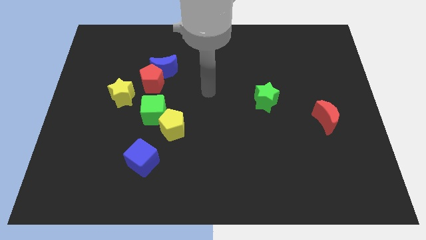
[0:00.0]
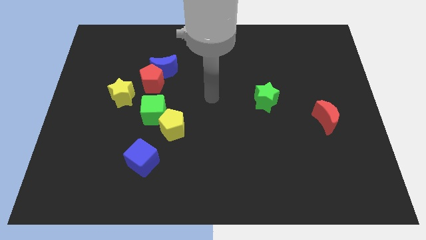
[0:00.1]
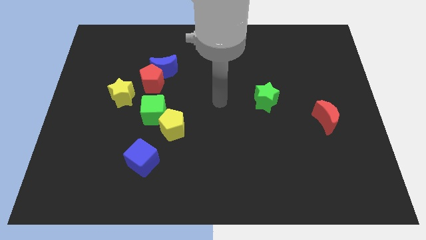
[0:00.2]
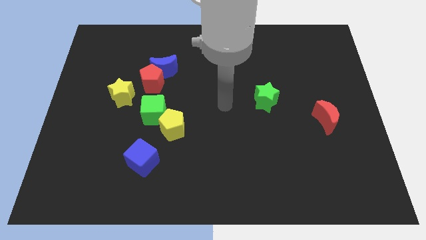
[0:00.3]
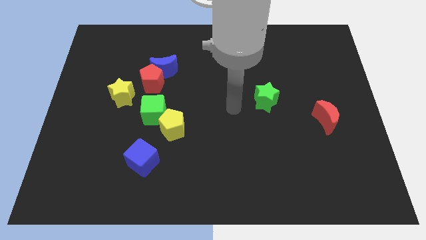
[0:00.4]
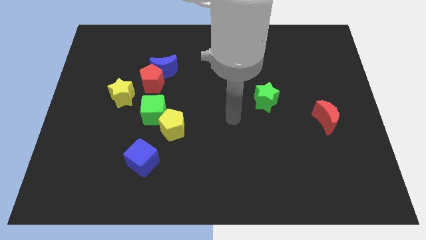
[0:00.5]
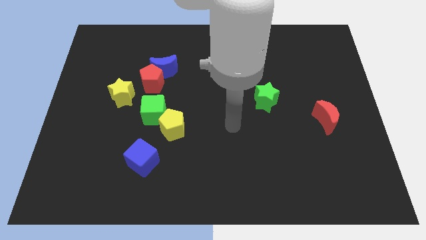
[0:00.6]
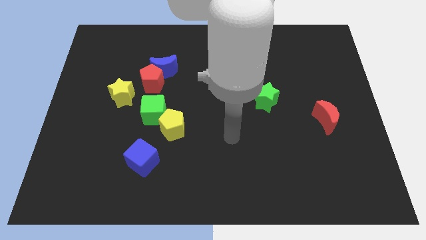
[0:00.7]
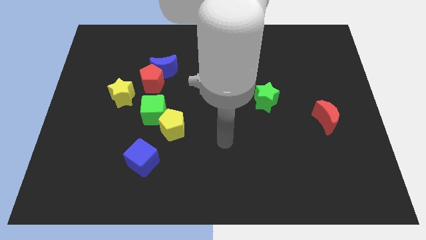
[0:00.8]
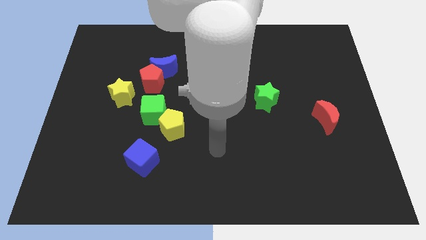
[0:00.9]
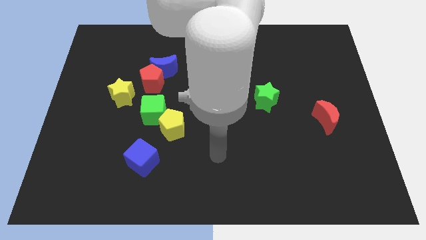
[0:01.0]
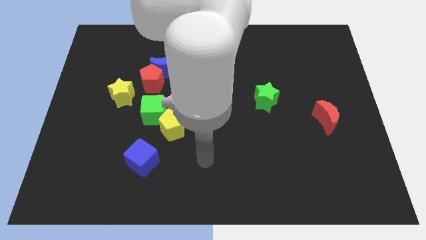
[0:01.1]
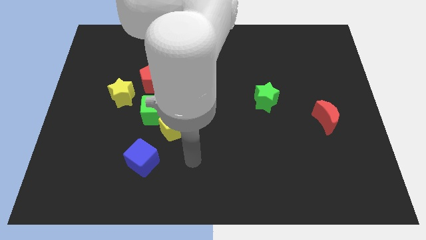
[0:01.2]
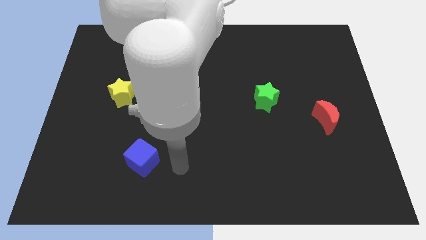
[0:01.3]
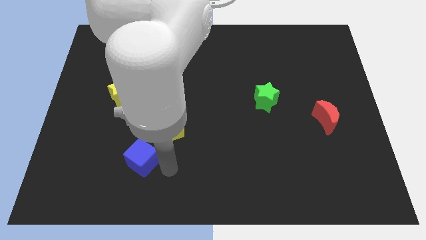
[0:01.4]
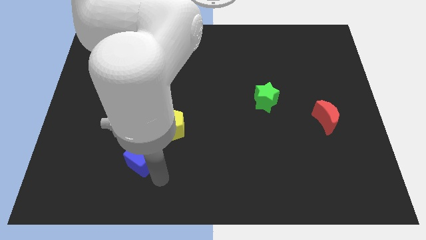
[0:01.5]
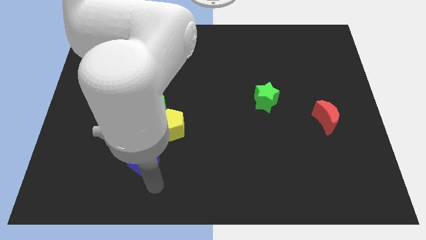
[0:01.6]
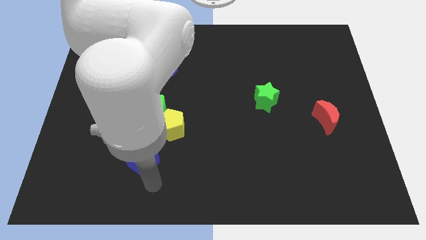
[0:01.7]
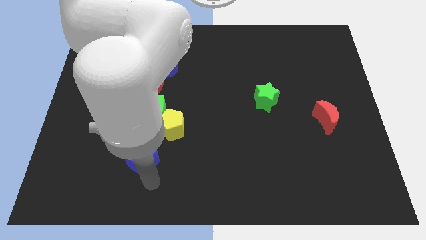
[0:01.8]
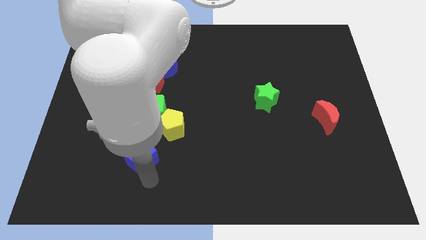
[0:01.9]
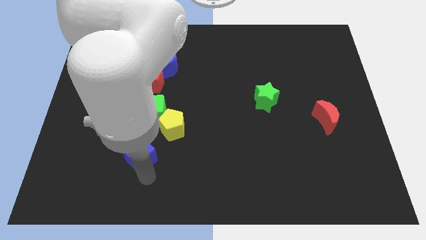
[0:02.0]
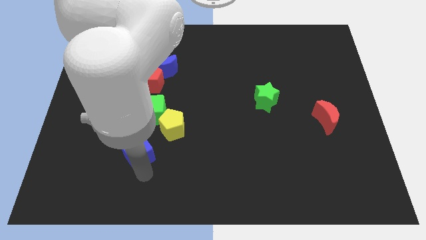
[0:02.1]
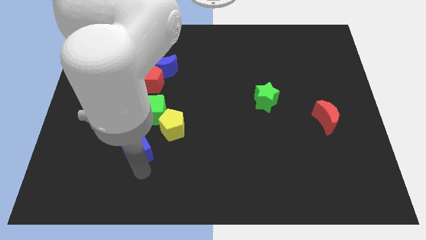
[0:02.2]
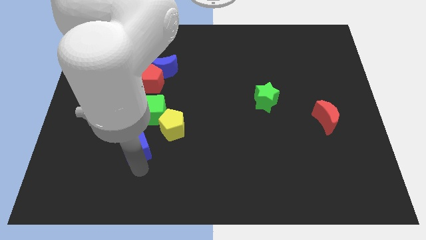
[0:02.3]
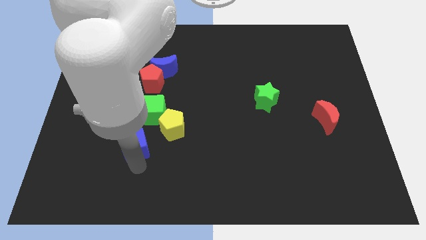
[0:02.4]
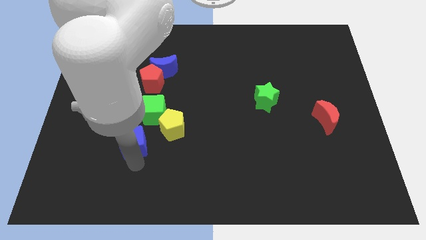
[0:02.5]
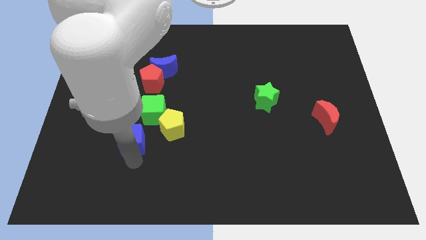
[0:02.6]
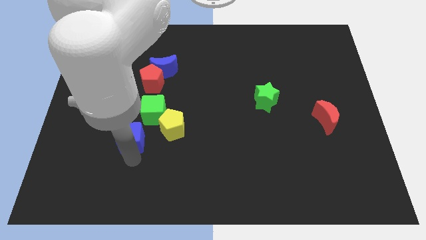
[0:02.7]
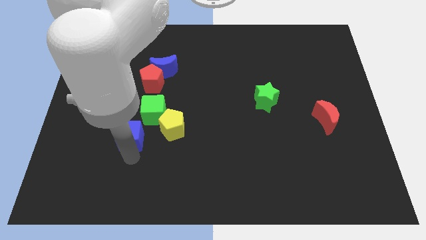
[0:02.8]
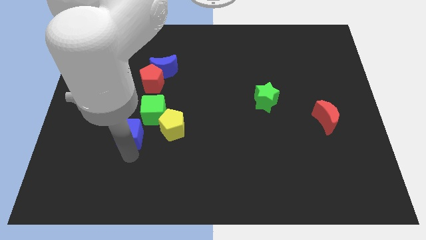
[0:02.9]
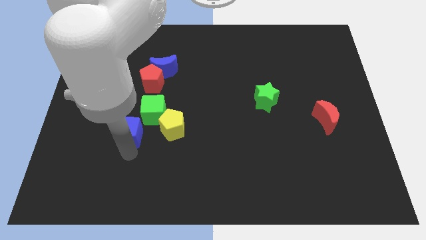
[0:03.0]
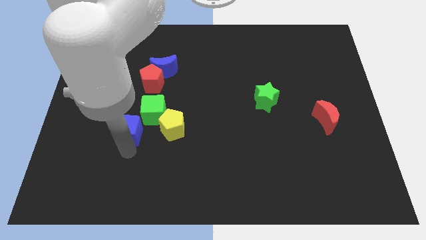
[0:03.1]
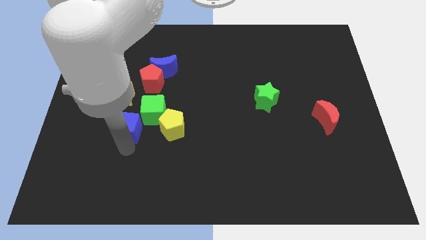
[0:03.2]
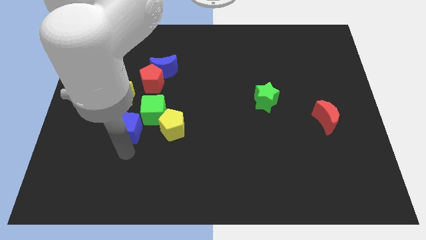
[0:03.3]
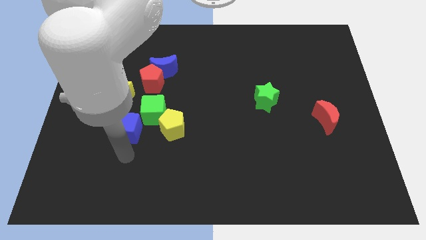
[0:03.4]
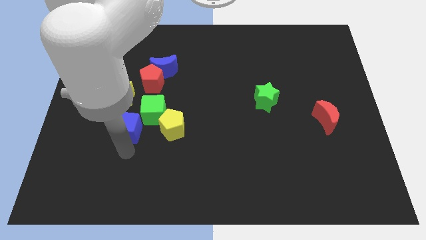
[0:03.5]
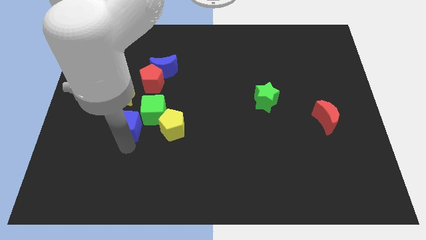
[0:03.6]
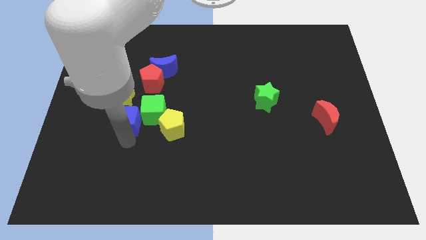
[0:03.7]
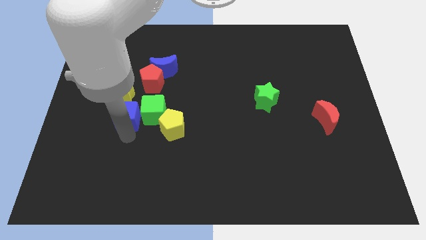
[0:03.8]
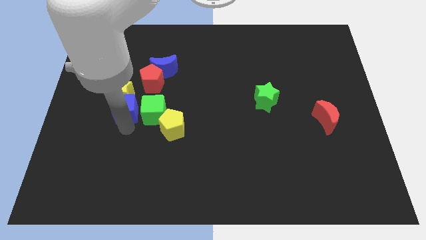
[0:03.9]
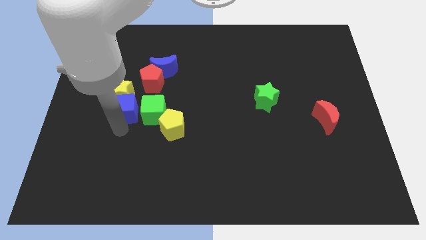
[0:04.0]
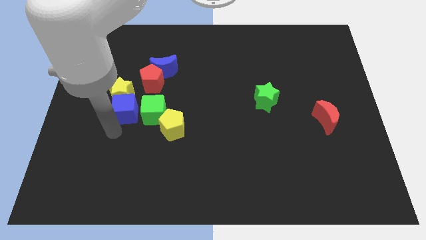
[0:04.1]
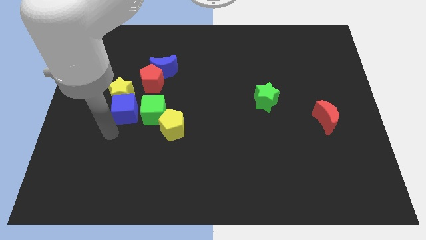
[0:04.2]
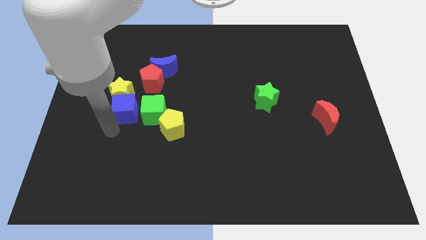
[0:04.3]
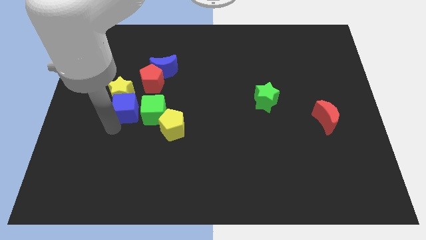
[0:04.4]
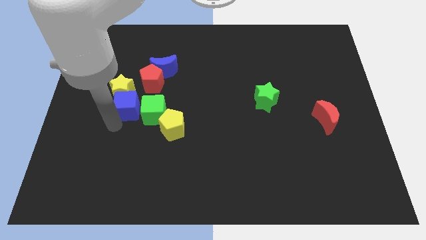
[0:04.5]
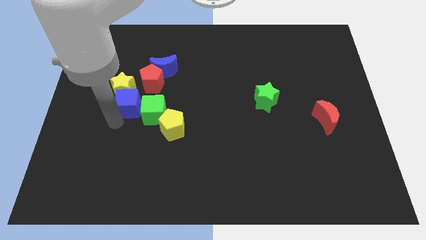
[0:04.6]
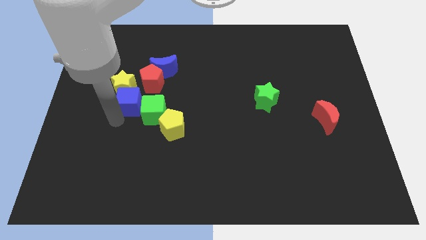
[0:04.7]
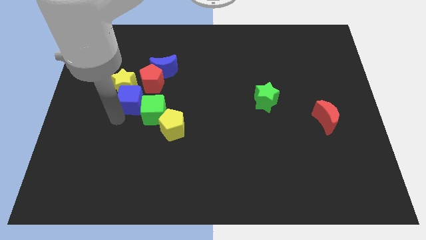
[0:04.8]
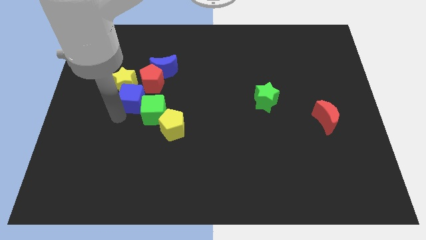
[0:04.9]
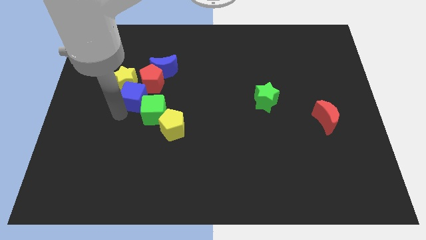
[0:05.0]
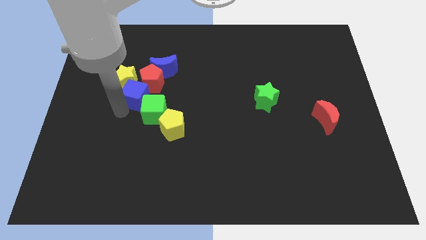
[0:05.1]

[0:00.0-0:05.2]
slide the blue cube close to the red pentagon

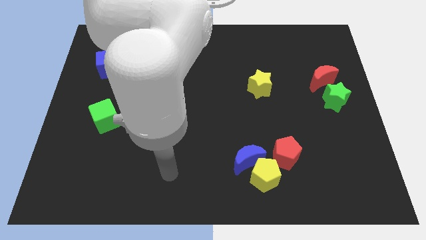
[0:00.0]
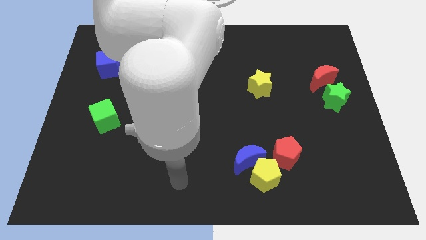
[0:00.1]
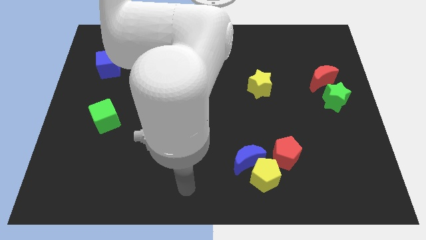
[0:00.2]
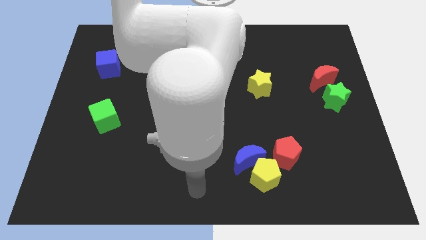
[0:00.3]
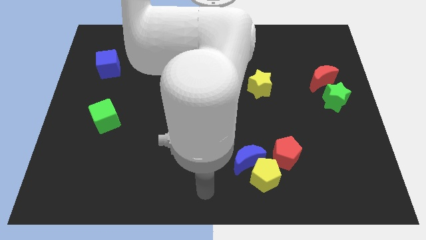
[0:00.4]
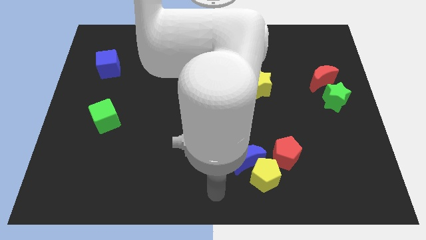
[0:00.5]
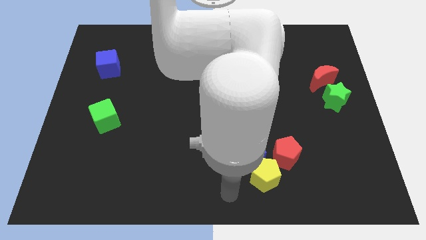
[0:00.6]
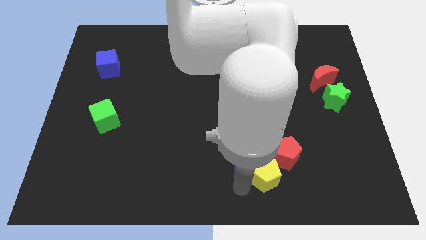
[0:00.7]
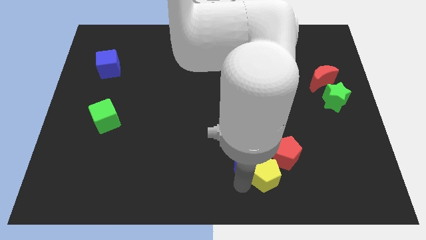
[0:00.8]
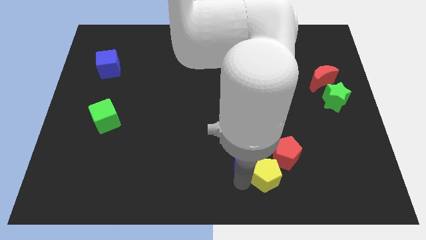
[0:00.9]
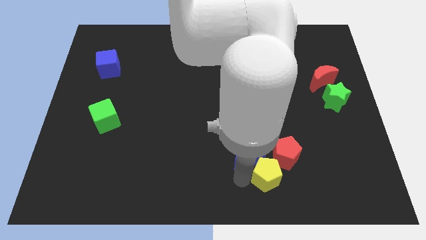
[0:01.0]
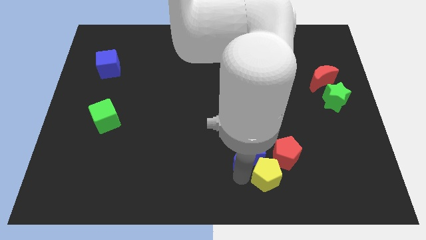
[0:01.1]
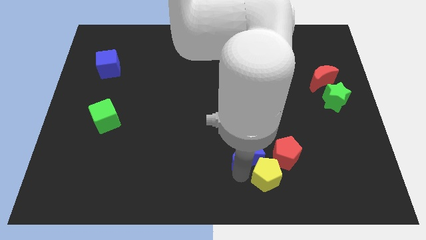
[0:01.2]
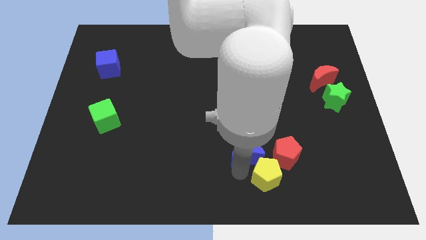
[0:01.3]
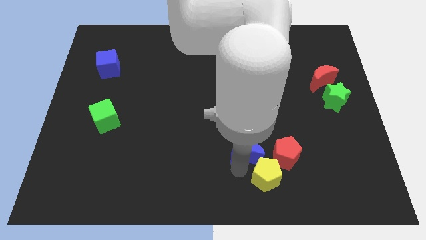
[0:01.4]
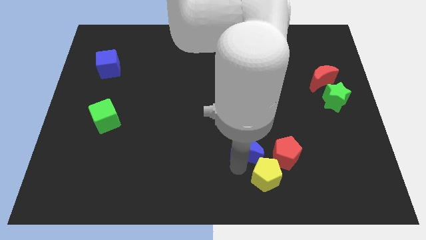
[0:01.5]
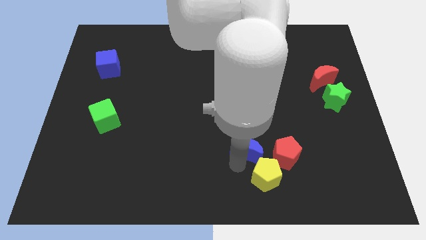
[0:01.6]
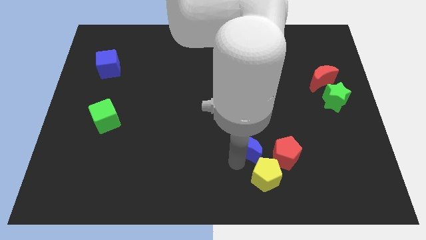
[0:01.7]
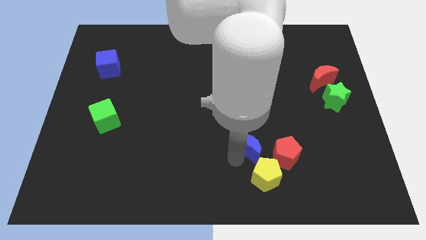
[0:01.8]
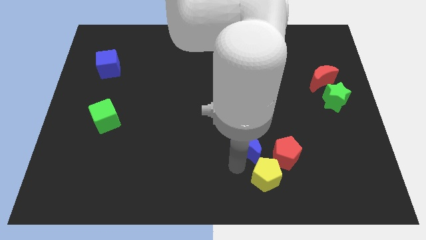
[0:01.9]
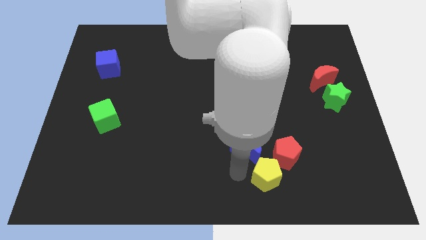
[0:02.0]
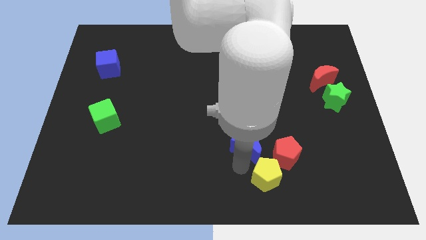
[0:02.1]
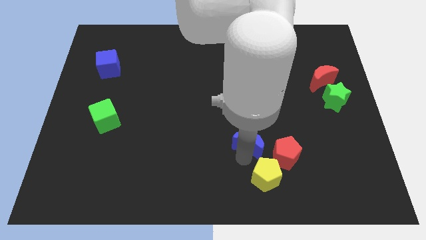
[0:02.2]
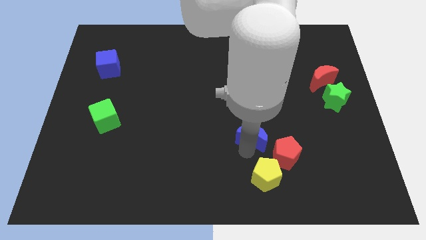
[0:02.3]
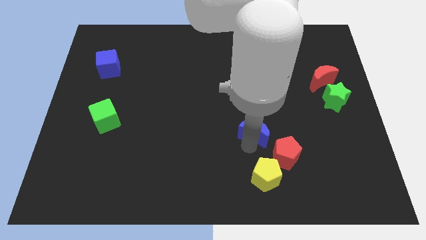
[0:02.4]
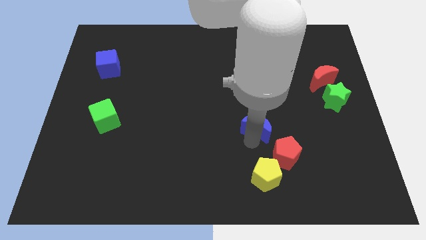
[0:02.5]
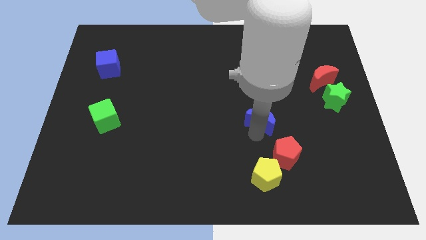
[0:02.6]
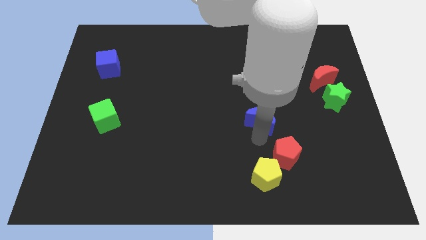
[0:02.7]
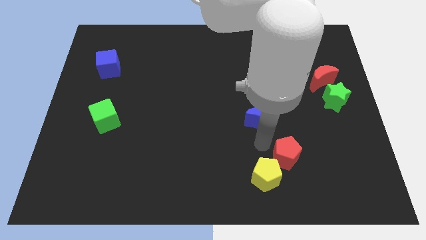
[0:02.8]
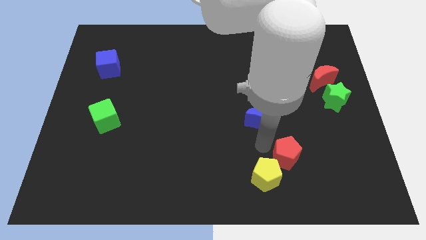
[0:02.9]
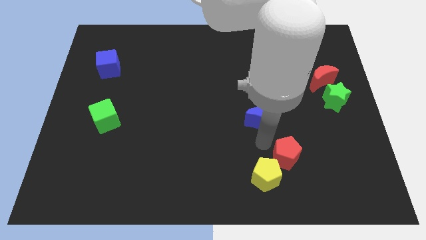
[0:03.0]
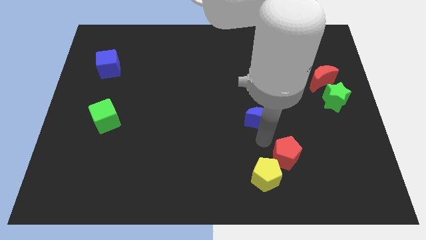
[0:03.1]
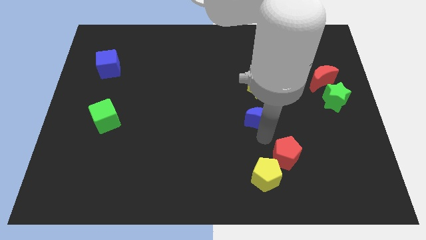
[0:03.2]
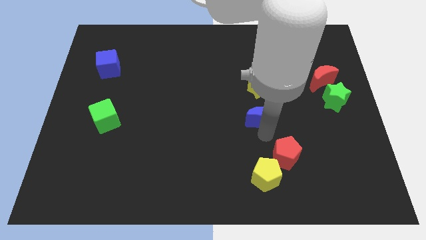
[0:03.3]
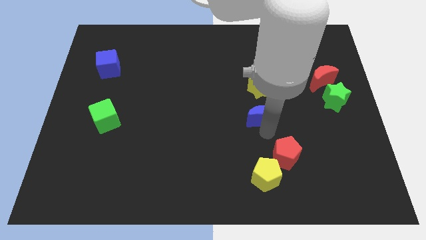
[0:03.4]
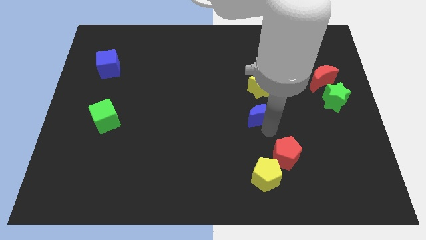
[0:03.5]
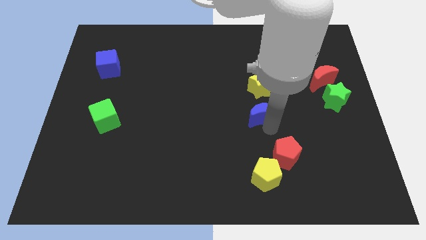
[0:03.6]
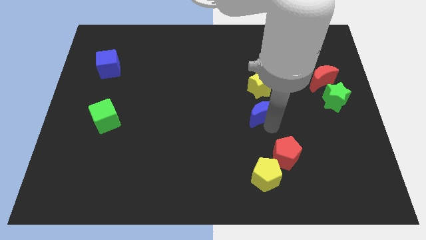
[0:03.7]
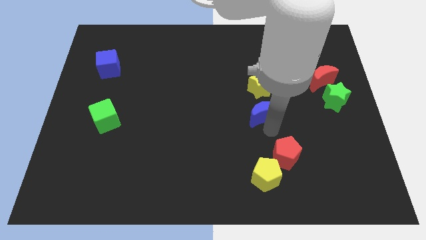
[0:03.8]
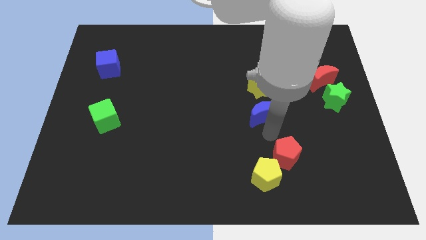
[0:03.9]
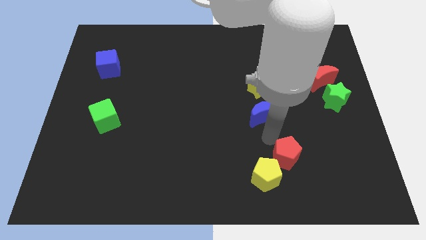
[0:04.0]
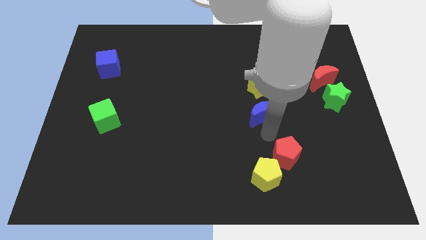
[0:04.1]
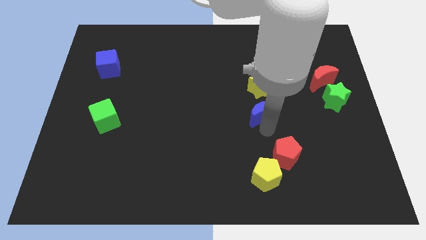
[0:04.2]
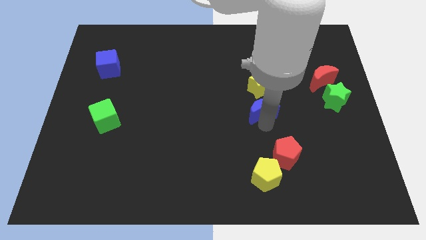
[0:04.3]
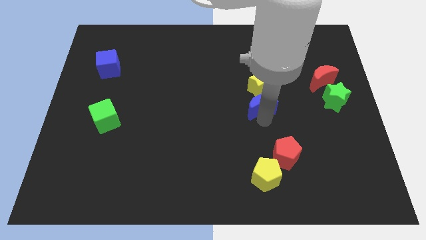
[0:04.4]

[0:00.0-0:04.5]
put the blue moon close to the yellow star
